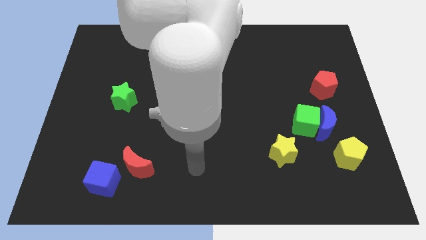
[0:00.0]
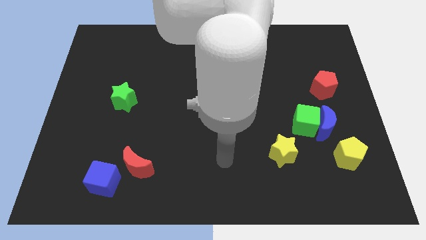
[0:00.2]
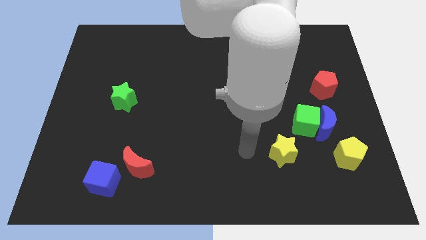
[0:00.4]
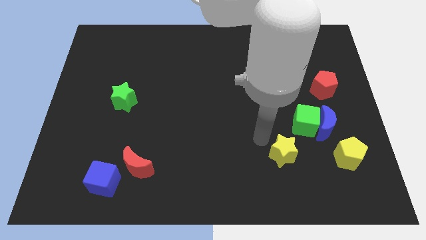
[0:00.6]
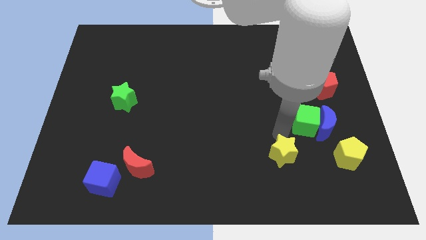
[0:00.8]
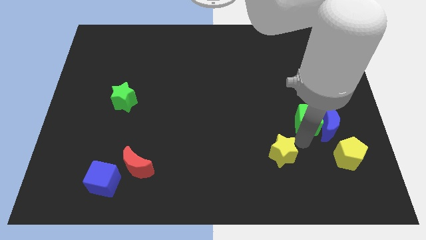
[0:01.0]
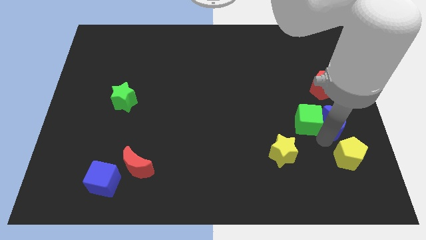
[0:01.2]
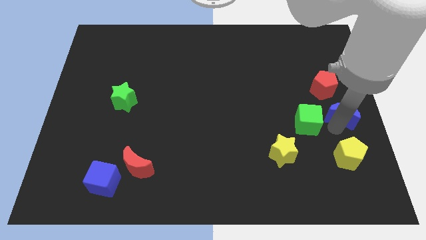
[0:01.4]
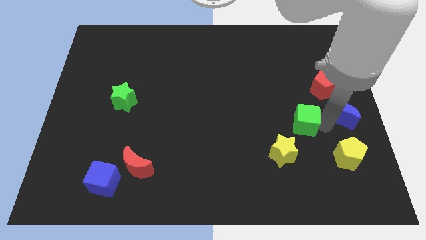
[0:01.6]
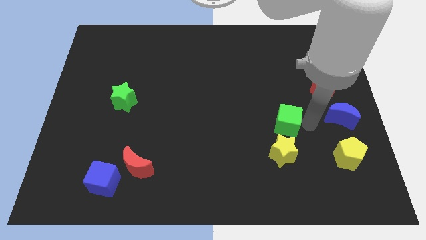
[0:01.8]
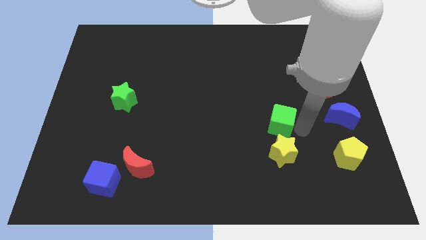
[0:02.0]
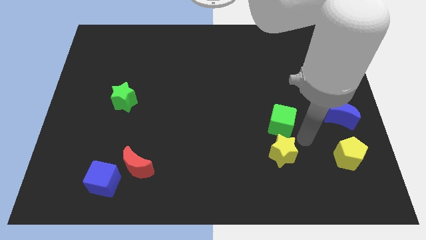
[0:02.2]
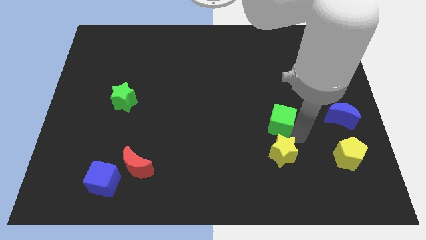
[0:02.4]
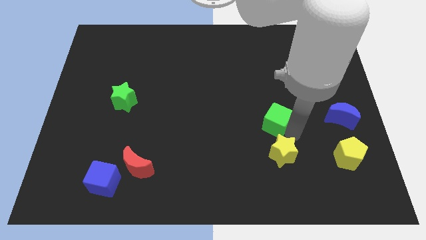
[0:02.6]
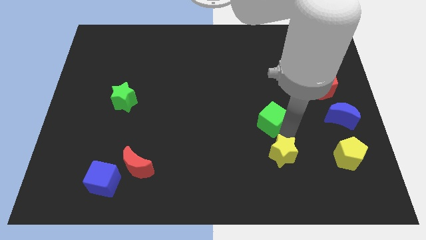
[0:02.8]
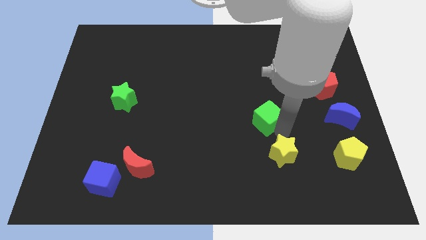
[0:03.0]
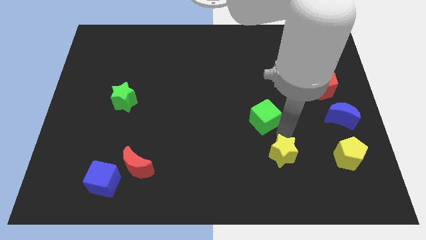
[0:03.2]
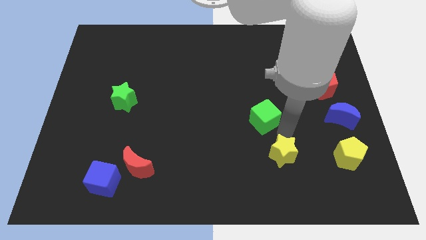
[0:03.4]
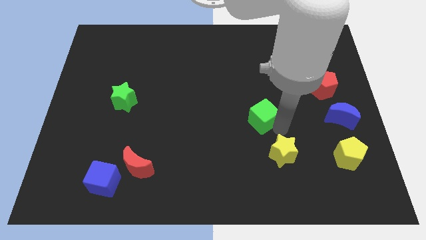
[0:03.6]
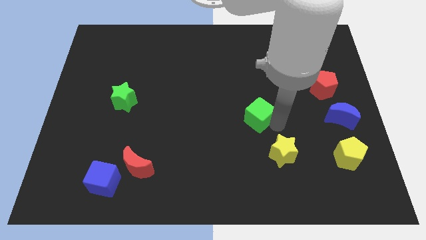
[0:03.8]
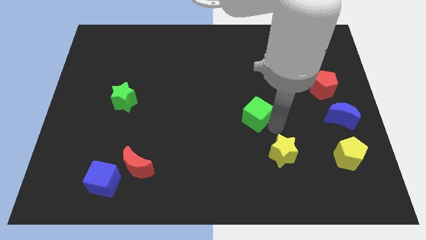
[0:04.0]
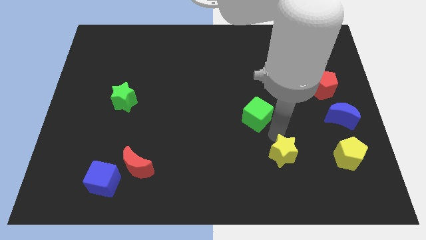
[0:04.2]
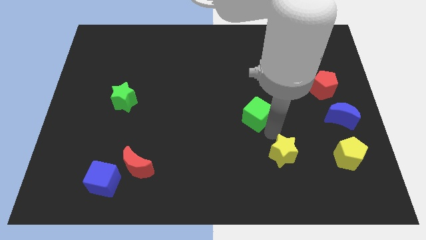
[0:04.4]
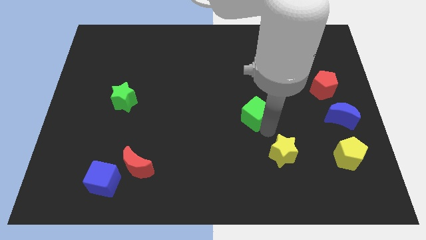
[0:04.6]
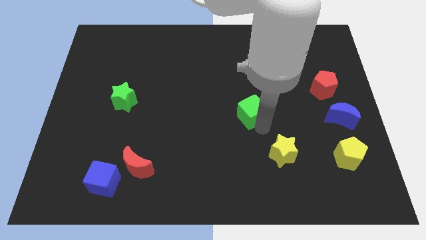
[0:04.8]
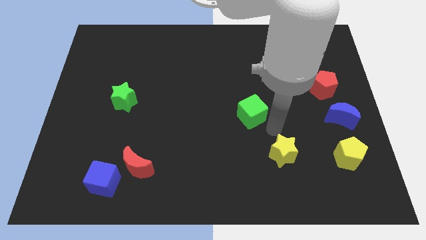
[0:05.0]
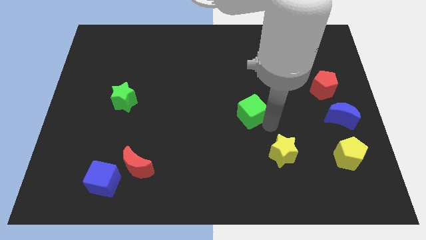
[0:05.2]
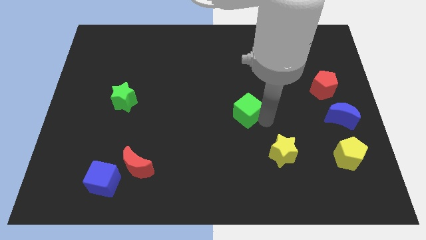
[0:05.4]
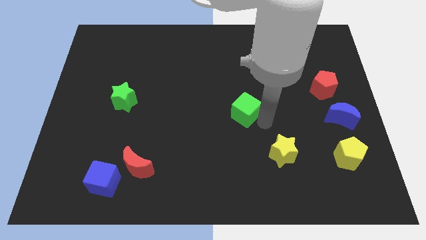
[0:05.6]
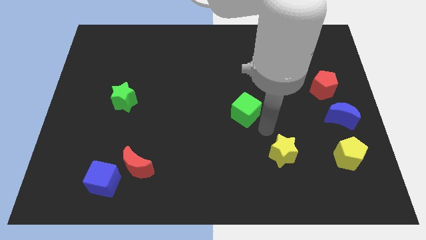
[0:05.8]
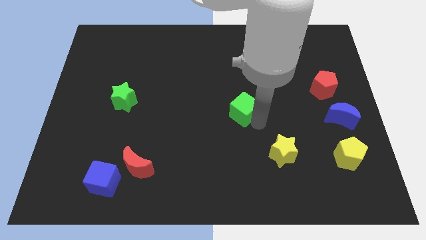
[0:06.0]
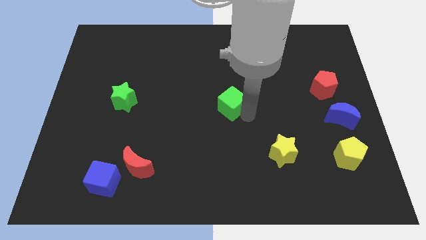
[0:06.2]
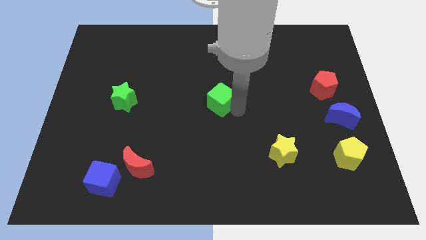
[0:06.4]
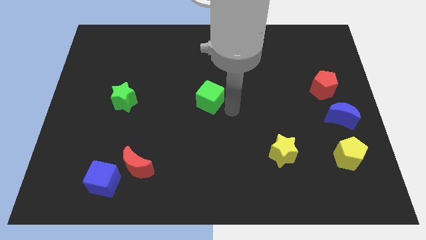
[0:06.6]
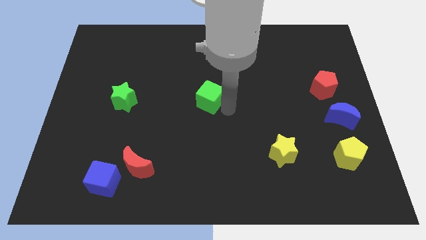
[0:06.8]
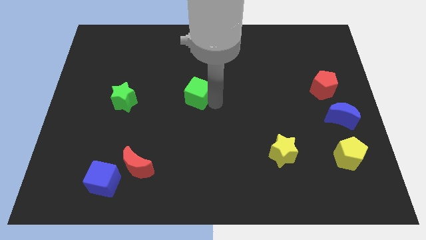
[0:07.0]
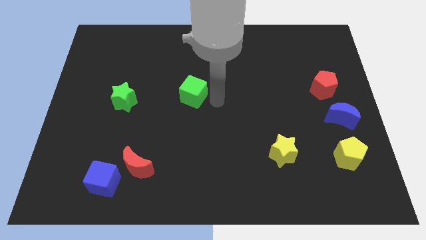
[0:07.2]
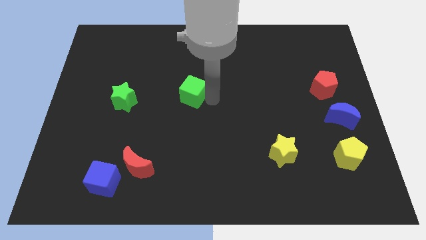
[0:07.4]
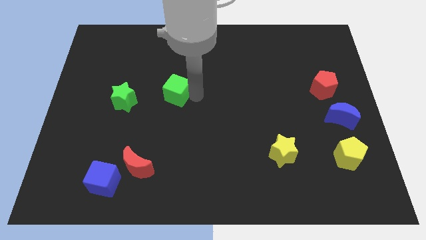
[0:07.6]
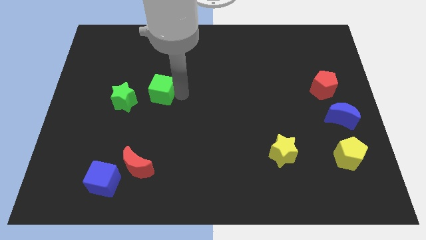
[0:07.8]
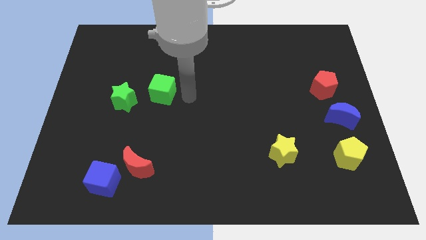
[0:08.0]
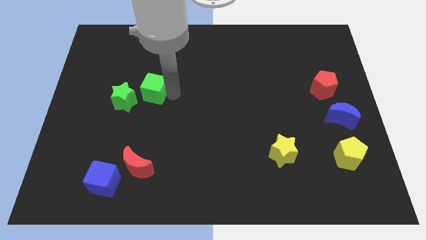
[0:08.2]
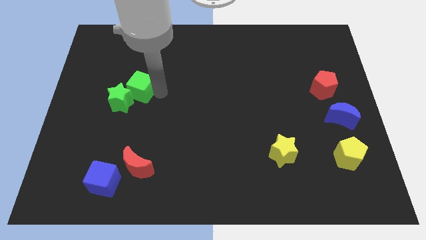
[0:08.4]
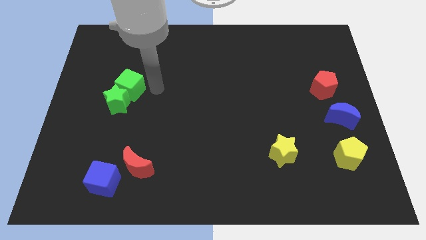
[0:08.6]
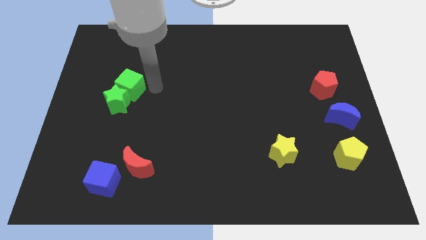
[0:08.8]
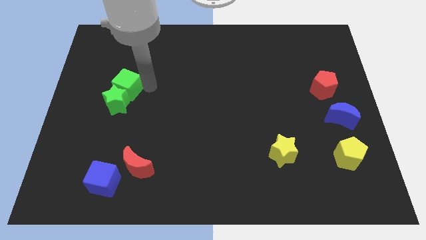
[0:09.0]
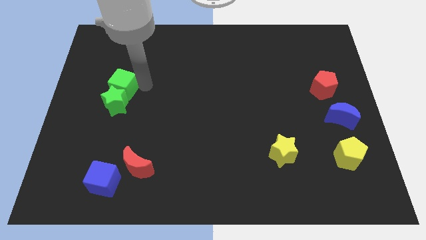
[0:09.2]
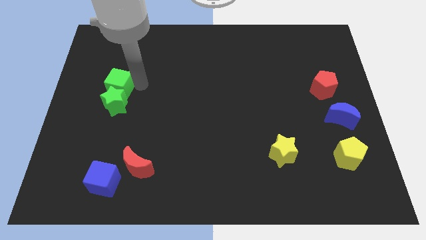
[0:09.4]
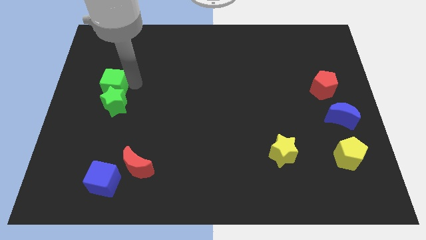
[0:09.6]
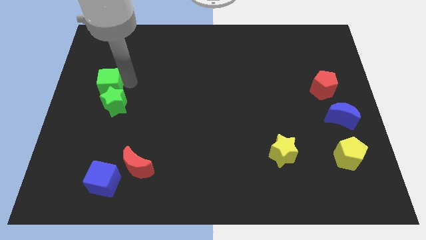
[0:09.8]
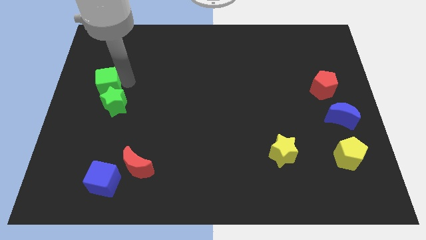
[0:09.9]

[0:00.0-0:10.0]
slide the green cube to the left side

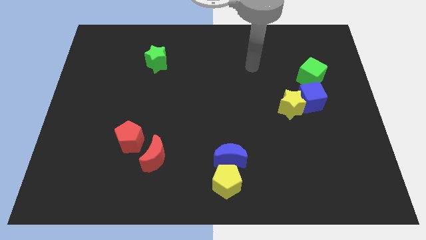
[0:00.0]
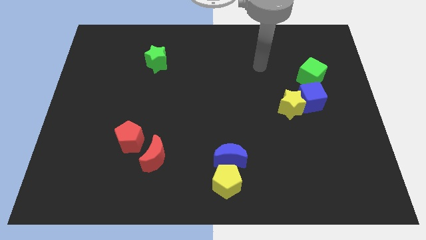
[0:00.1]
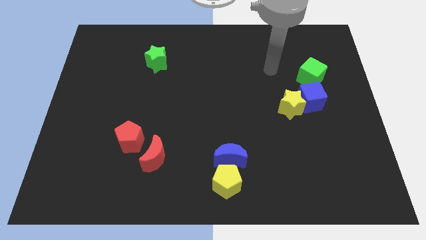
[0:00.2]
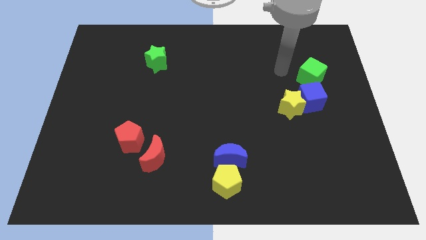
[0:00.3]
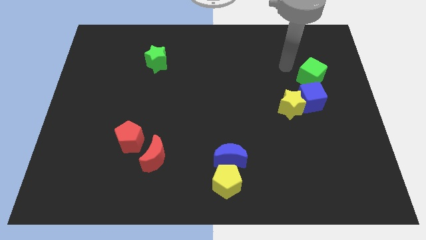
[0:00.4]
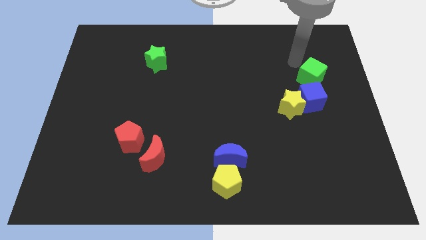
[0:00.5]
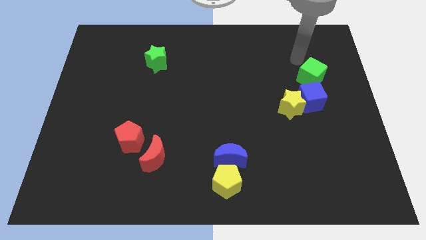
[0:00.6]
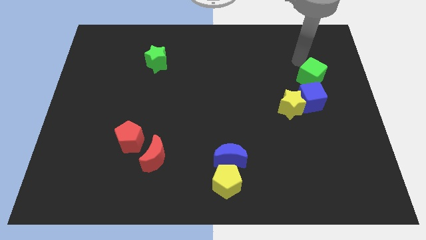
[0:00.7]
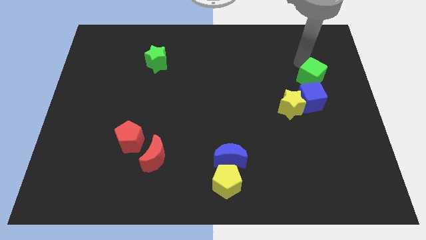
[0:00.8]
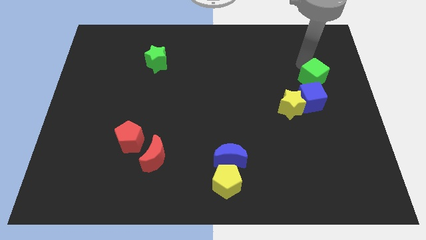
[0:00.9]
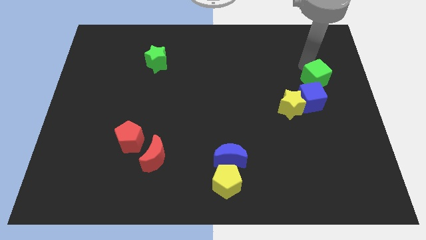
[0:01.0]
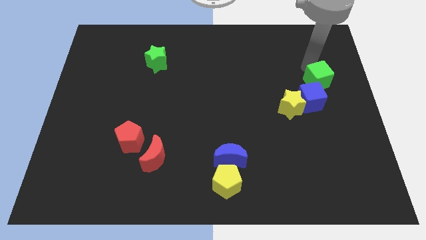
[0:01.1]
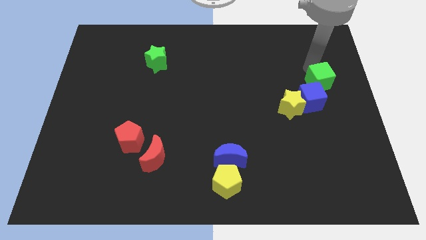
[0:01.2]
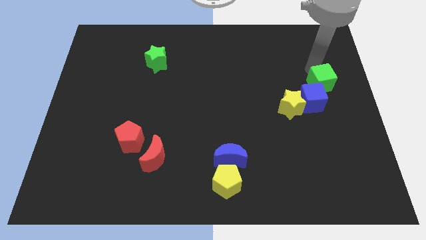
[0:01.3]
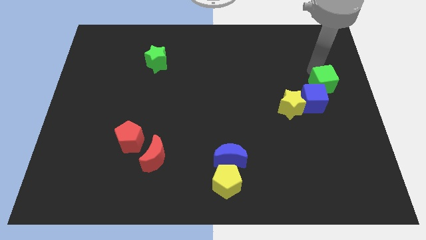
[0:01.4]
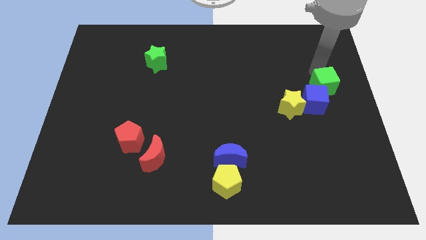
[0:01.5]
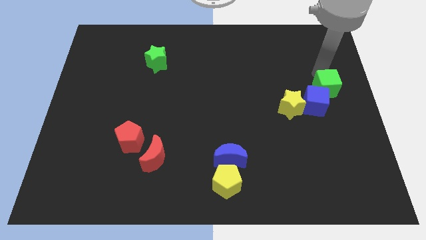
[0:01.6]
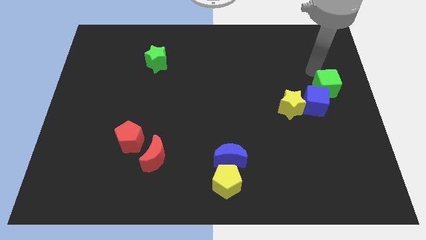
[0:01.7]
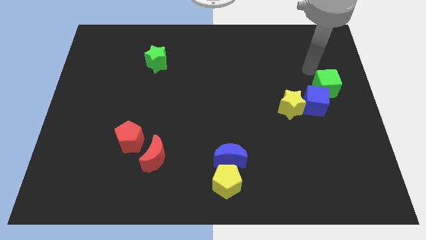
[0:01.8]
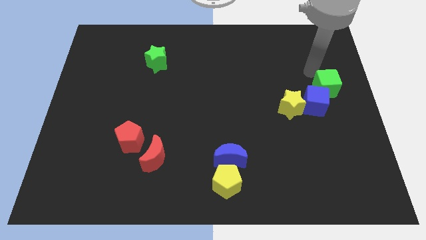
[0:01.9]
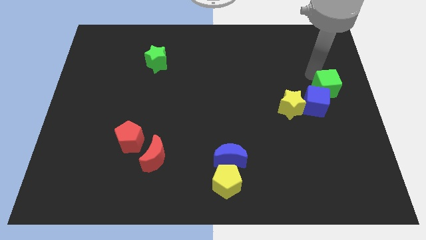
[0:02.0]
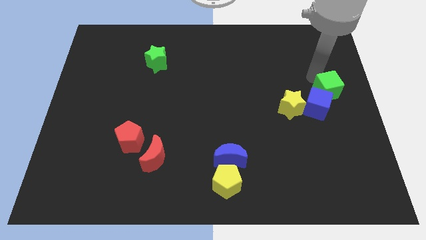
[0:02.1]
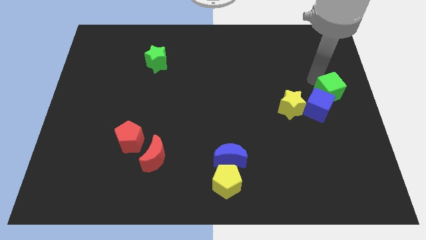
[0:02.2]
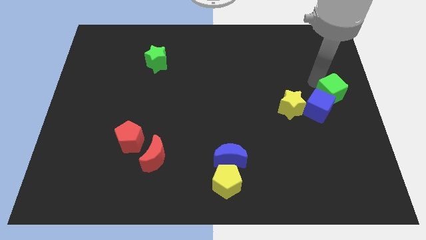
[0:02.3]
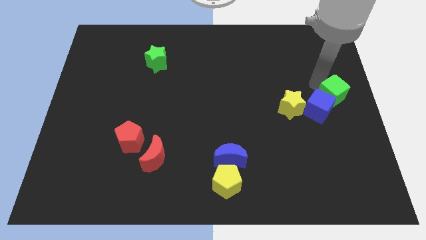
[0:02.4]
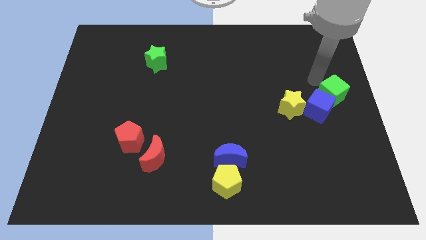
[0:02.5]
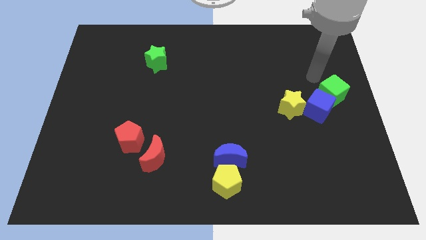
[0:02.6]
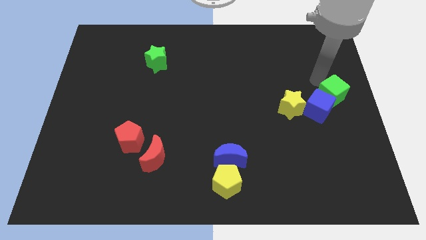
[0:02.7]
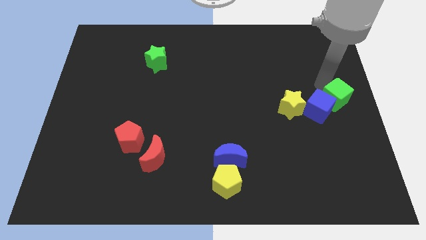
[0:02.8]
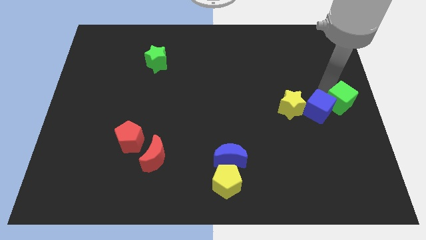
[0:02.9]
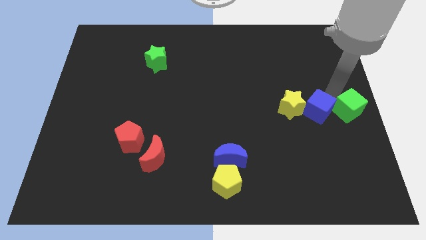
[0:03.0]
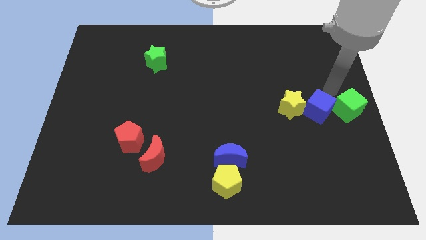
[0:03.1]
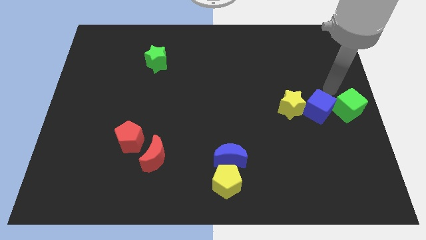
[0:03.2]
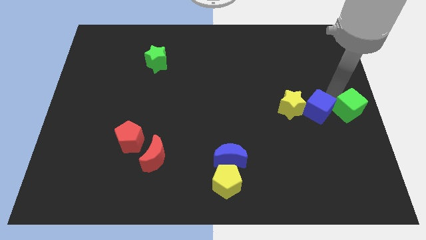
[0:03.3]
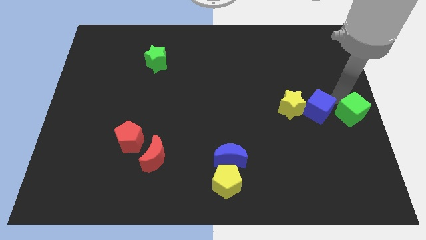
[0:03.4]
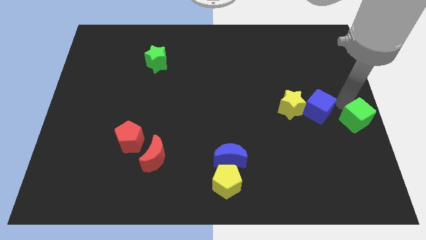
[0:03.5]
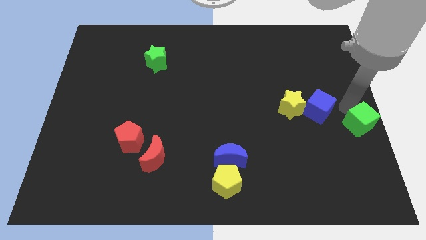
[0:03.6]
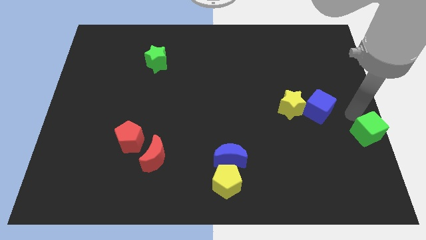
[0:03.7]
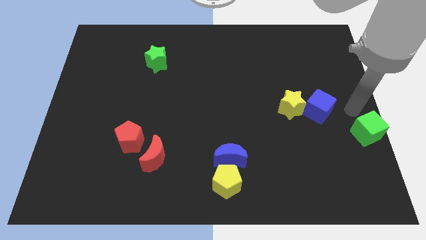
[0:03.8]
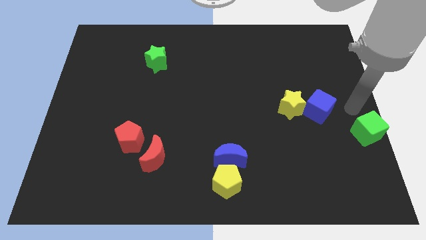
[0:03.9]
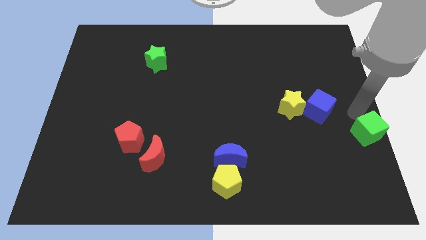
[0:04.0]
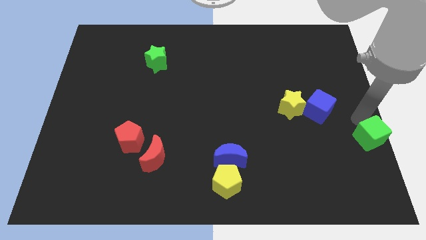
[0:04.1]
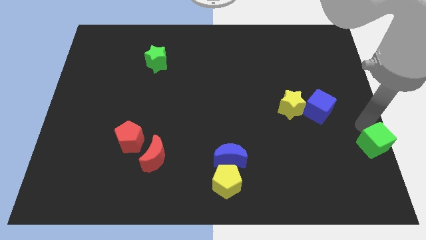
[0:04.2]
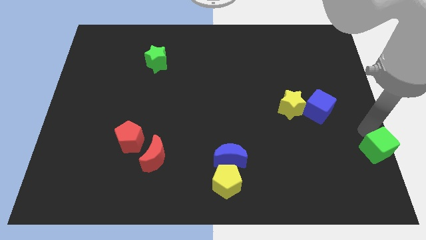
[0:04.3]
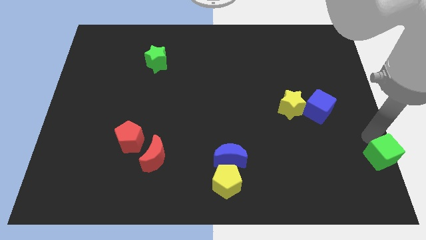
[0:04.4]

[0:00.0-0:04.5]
put the green cube to the bottom right
